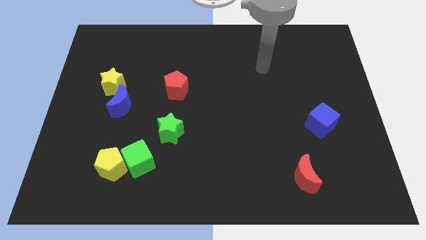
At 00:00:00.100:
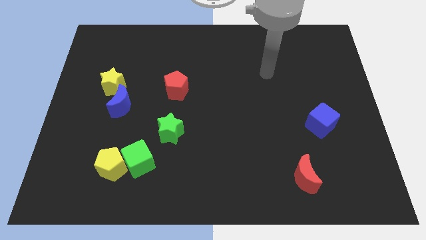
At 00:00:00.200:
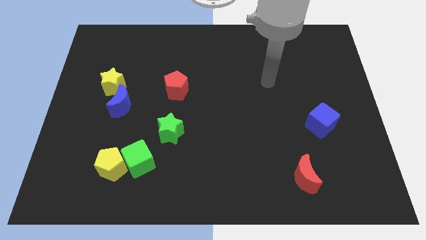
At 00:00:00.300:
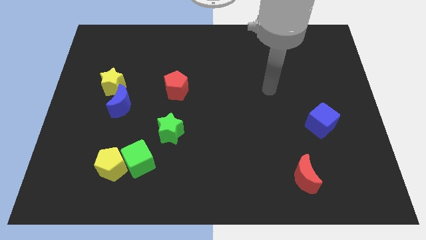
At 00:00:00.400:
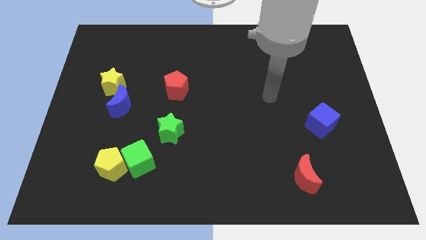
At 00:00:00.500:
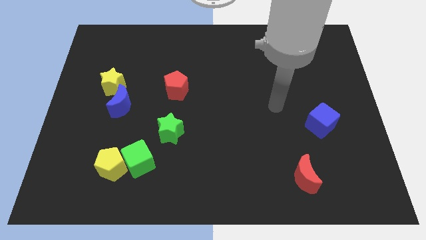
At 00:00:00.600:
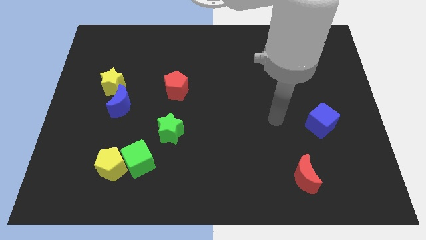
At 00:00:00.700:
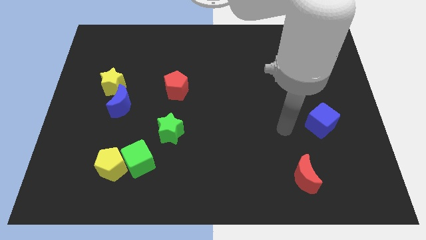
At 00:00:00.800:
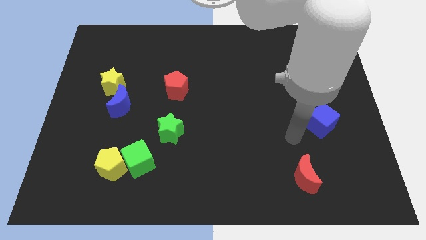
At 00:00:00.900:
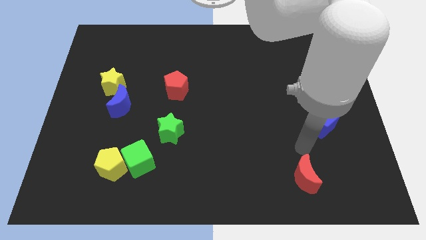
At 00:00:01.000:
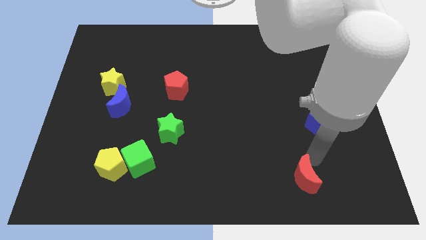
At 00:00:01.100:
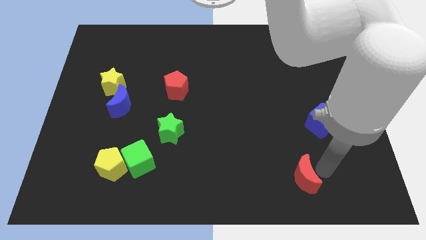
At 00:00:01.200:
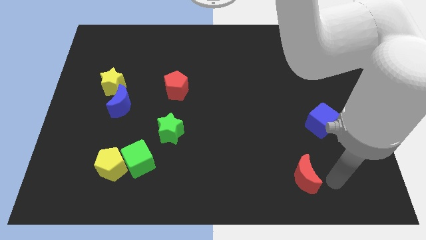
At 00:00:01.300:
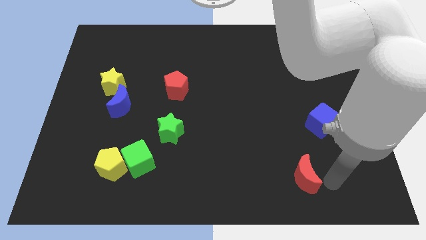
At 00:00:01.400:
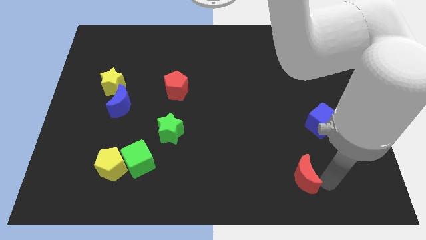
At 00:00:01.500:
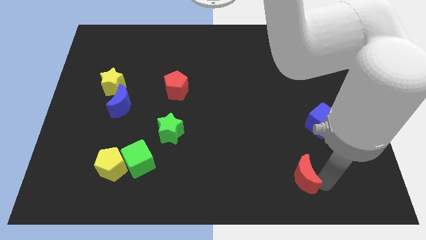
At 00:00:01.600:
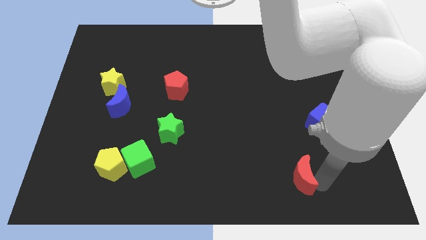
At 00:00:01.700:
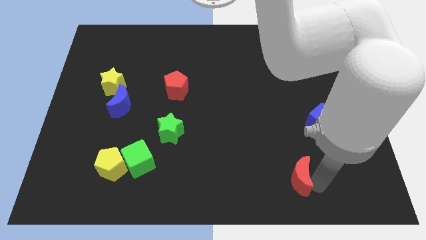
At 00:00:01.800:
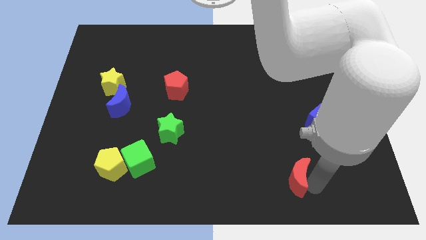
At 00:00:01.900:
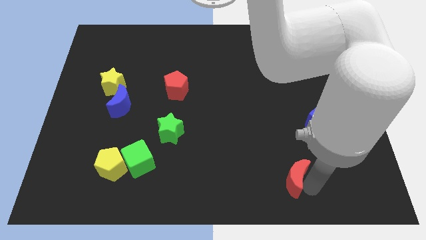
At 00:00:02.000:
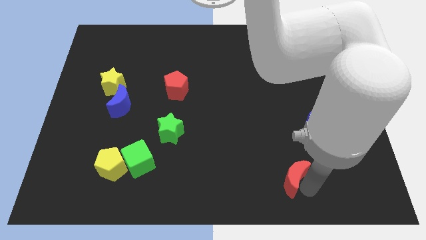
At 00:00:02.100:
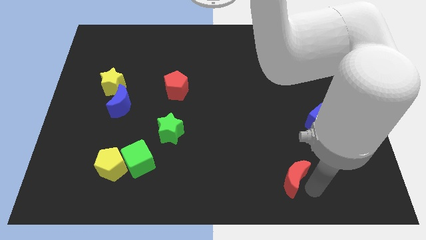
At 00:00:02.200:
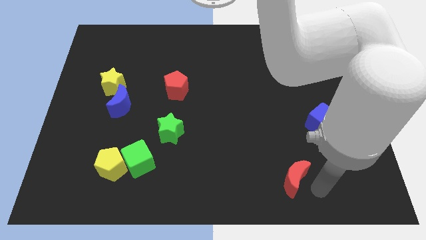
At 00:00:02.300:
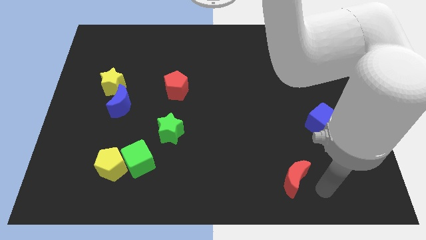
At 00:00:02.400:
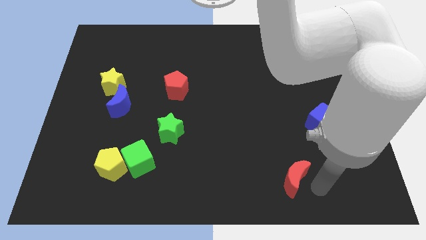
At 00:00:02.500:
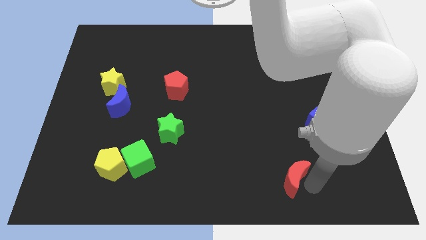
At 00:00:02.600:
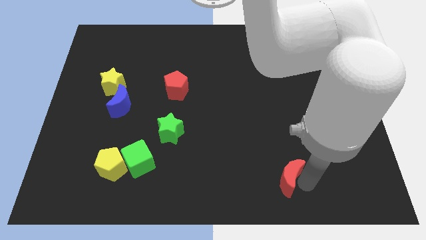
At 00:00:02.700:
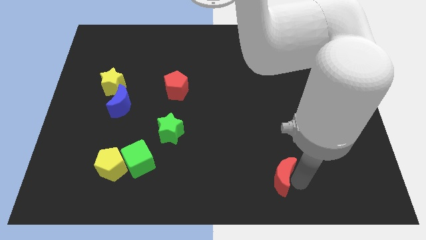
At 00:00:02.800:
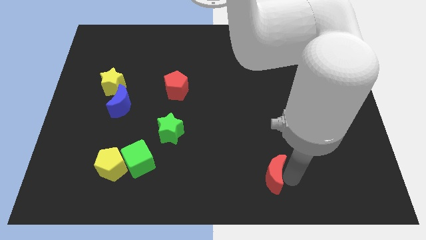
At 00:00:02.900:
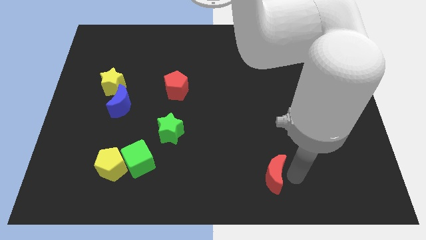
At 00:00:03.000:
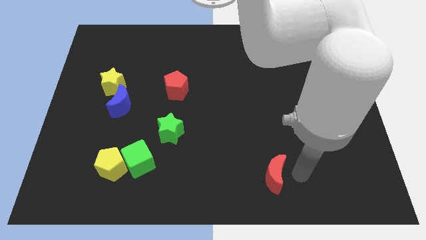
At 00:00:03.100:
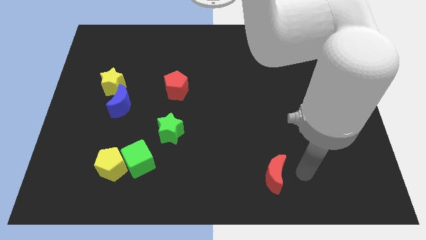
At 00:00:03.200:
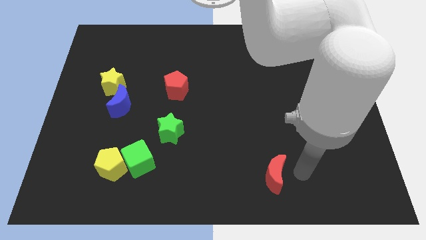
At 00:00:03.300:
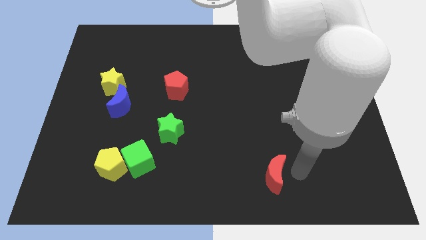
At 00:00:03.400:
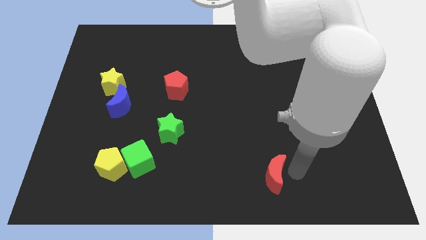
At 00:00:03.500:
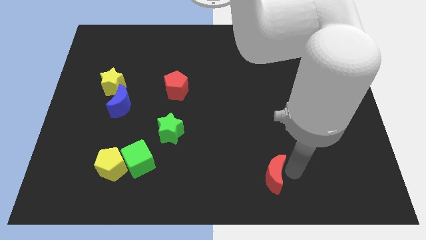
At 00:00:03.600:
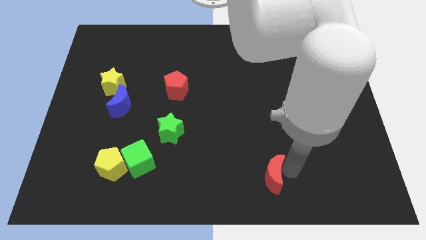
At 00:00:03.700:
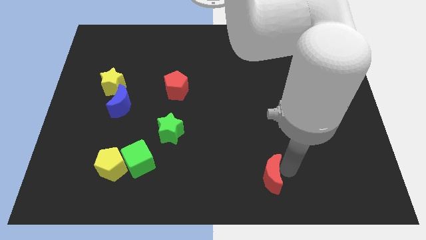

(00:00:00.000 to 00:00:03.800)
move the red moon slightly left

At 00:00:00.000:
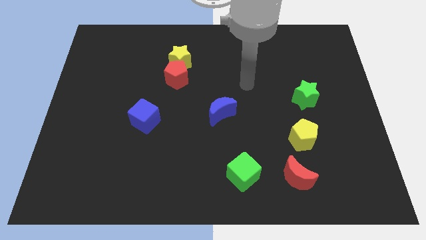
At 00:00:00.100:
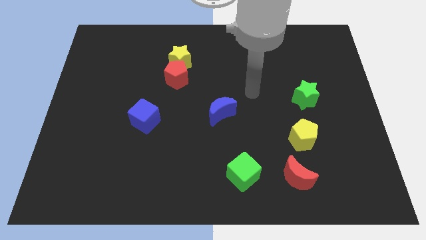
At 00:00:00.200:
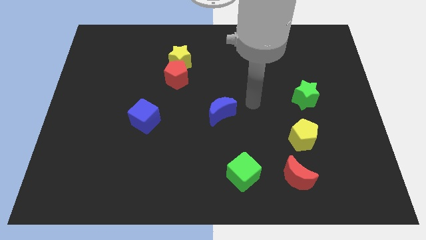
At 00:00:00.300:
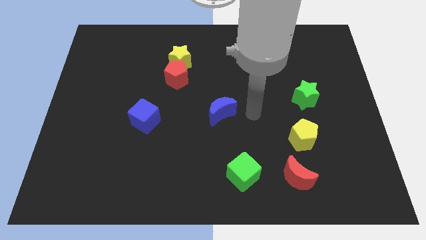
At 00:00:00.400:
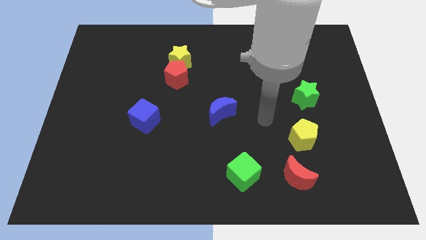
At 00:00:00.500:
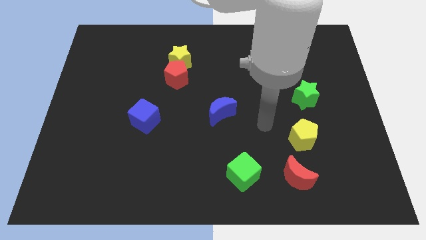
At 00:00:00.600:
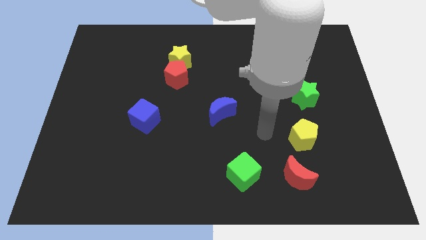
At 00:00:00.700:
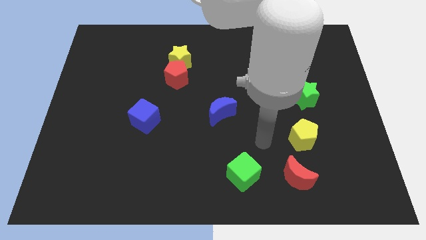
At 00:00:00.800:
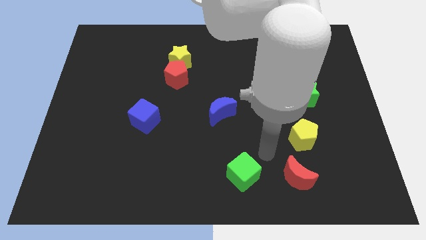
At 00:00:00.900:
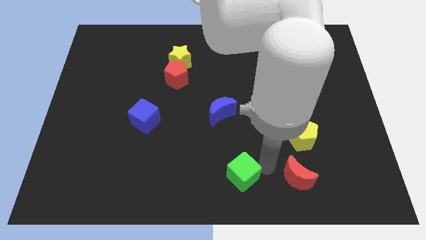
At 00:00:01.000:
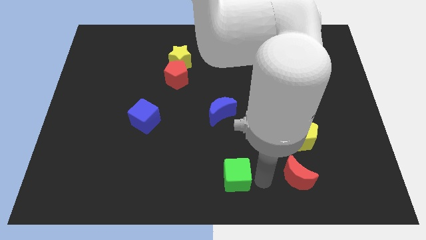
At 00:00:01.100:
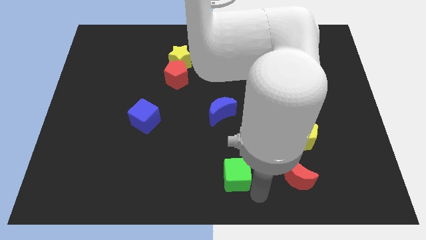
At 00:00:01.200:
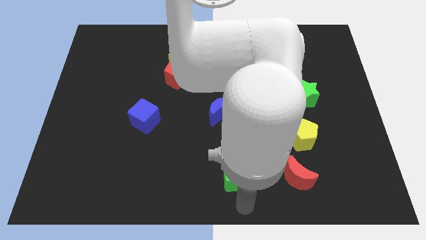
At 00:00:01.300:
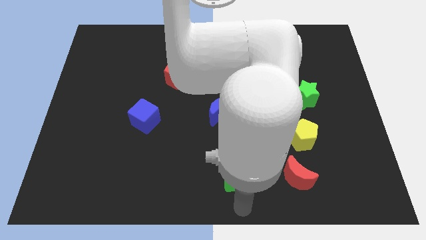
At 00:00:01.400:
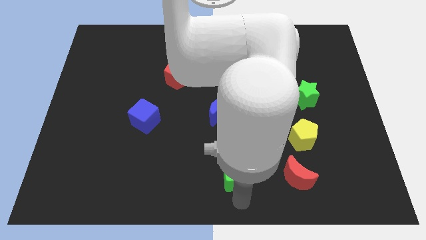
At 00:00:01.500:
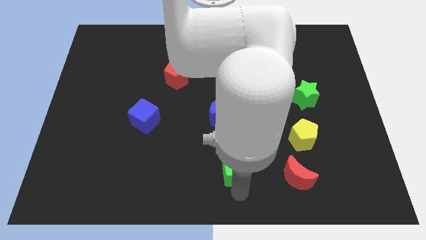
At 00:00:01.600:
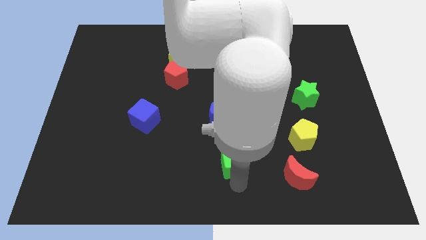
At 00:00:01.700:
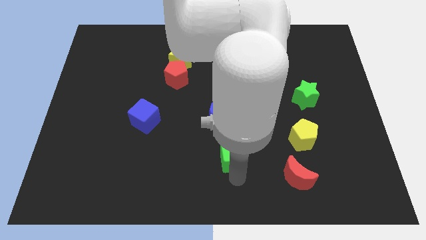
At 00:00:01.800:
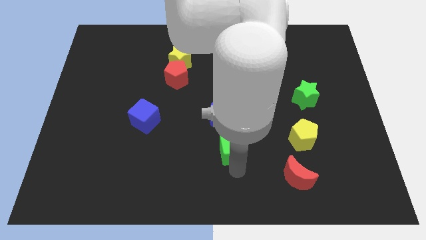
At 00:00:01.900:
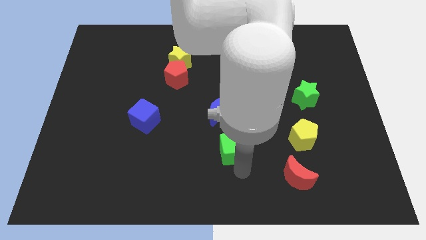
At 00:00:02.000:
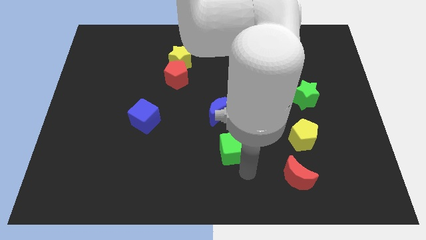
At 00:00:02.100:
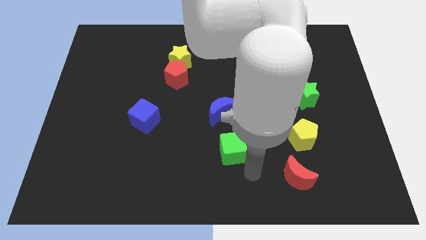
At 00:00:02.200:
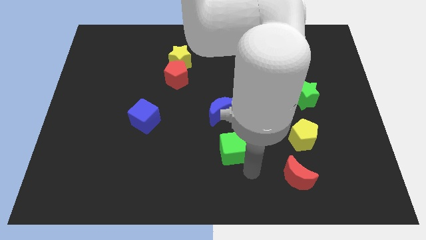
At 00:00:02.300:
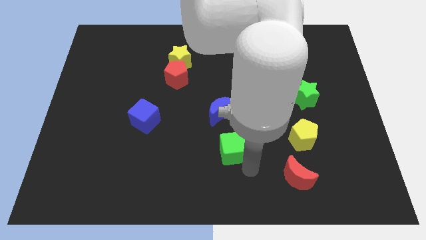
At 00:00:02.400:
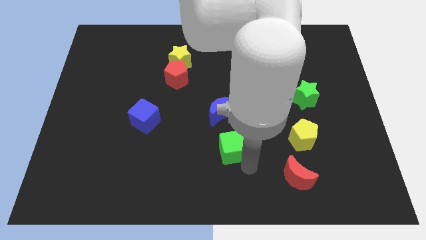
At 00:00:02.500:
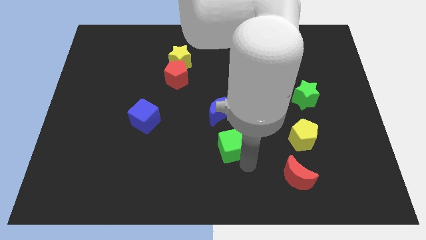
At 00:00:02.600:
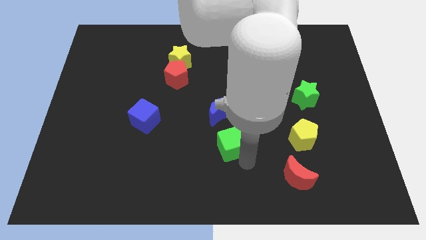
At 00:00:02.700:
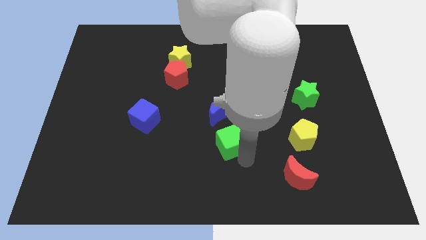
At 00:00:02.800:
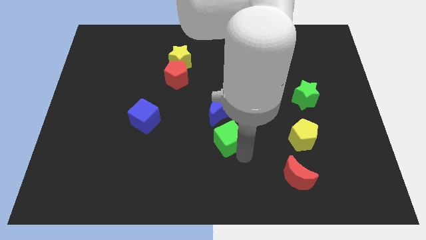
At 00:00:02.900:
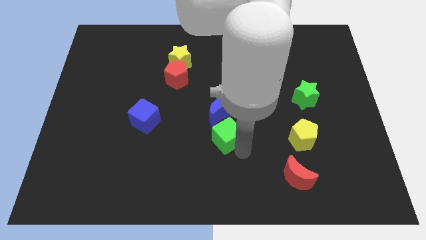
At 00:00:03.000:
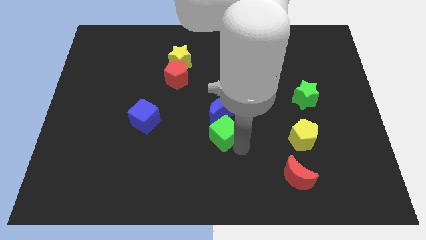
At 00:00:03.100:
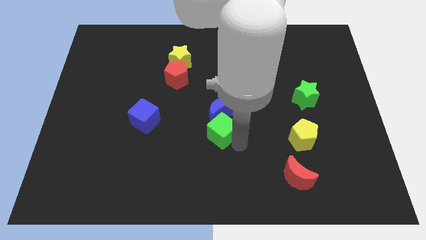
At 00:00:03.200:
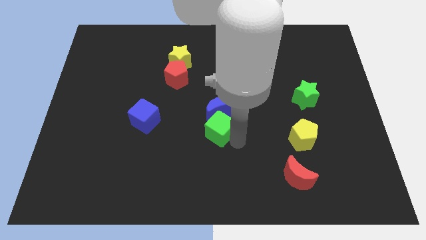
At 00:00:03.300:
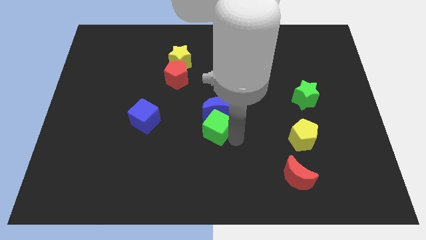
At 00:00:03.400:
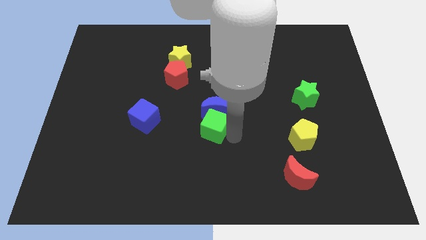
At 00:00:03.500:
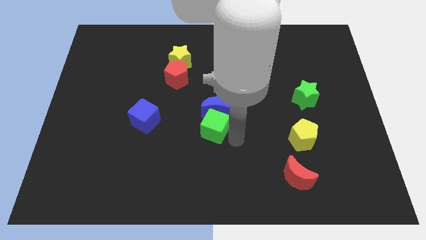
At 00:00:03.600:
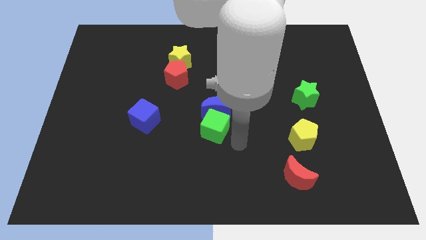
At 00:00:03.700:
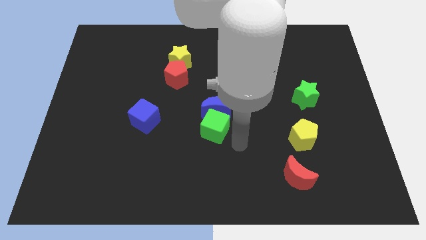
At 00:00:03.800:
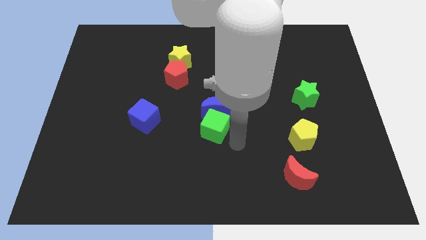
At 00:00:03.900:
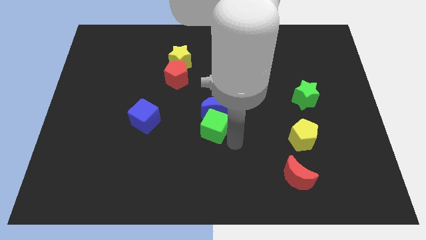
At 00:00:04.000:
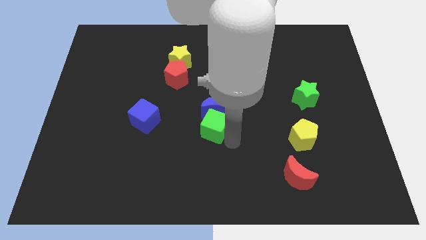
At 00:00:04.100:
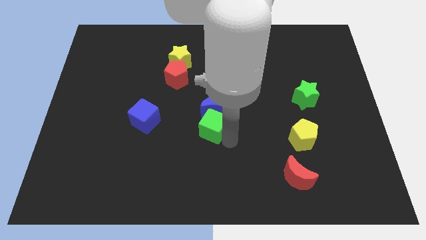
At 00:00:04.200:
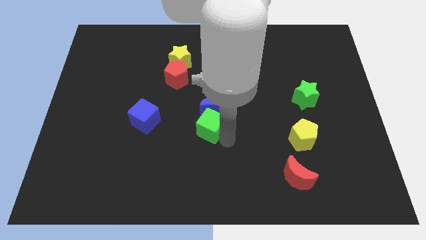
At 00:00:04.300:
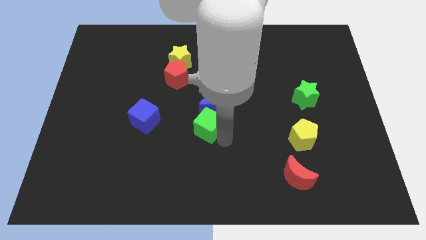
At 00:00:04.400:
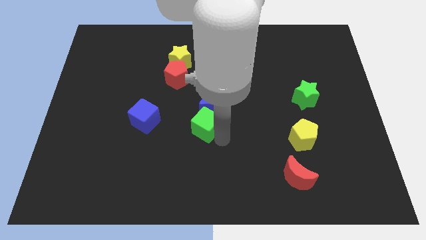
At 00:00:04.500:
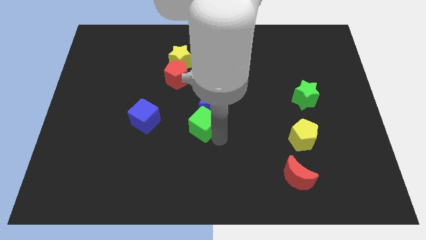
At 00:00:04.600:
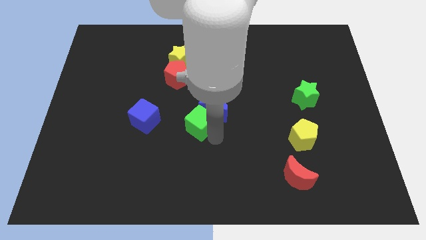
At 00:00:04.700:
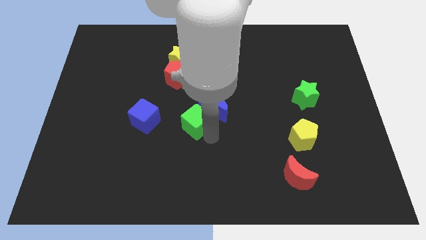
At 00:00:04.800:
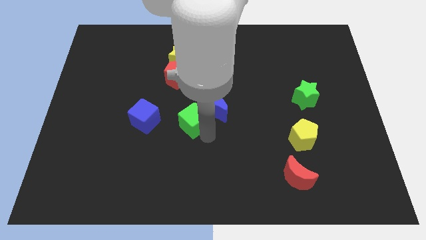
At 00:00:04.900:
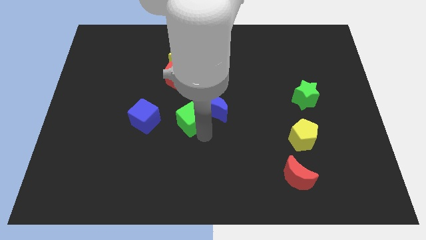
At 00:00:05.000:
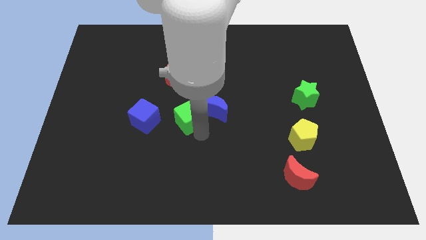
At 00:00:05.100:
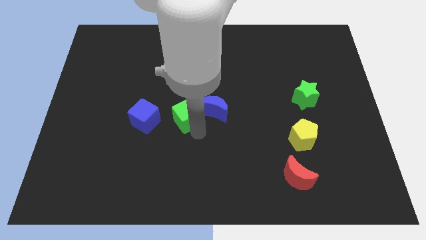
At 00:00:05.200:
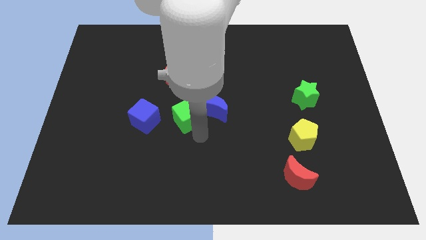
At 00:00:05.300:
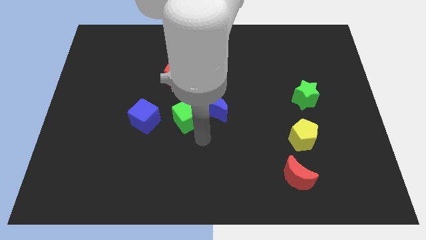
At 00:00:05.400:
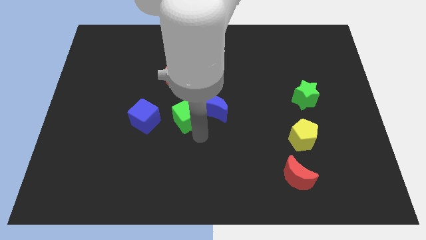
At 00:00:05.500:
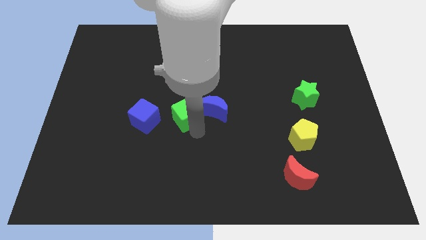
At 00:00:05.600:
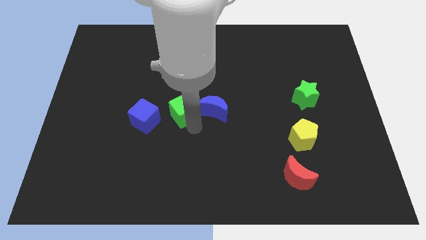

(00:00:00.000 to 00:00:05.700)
slide the green cube upwards and left diagonally
